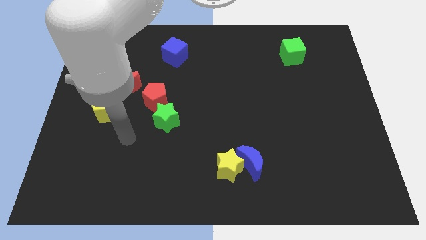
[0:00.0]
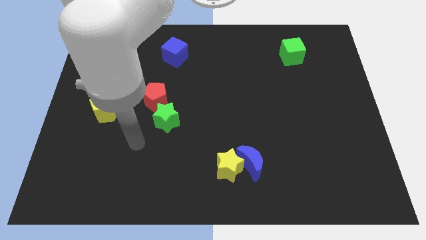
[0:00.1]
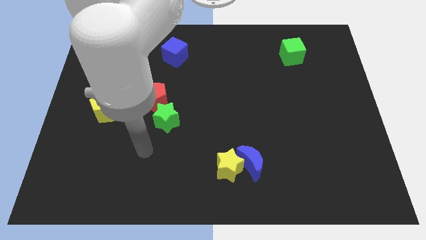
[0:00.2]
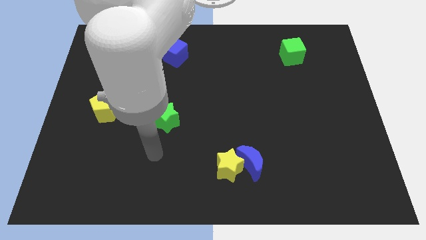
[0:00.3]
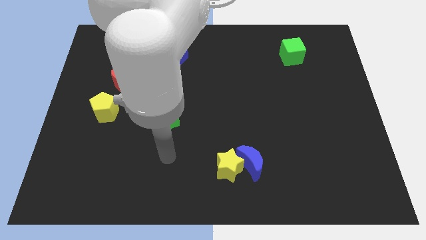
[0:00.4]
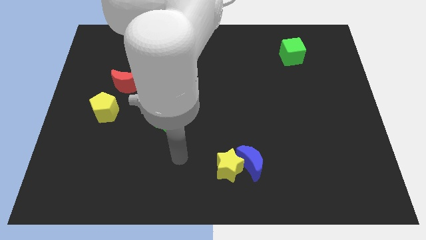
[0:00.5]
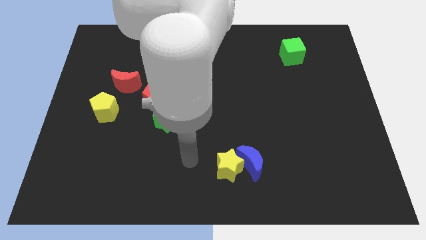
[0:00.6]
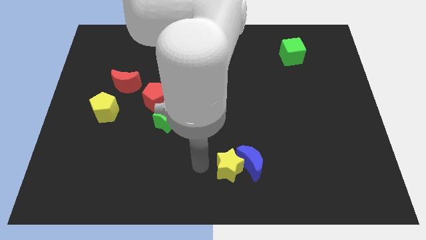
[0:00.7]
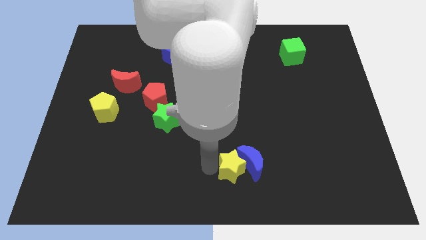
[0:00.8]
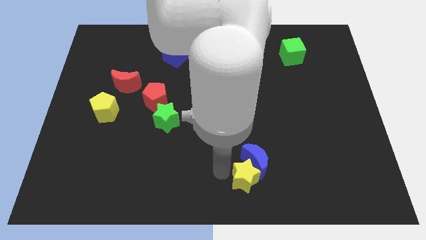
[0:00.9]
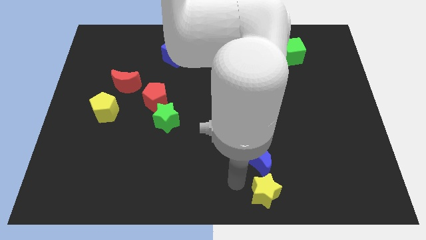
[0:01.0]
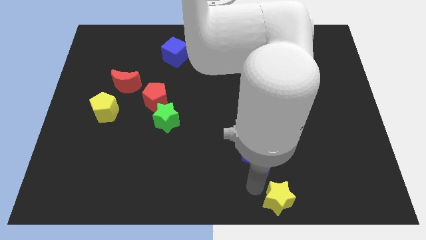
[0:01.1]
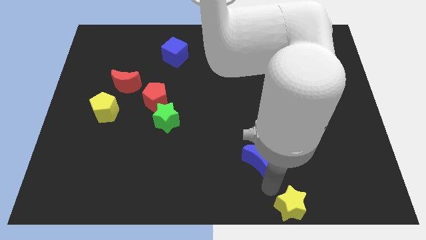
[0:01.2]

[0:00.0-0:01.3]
pull the blue moon apart from the yellow star

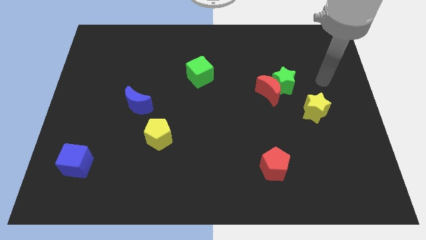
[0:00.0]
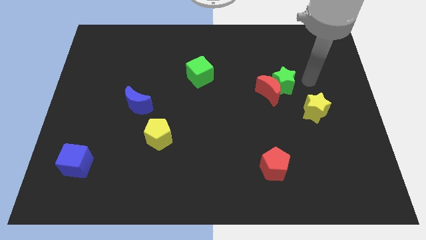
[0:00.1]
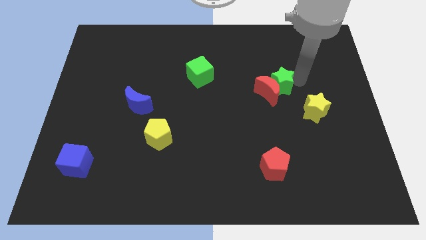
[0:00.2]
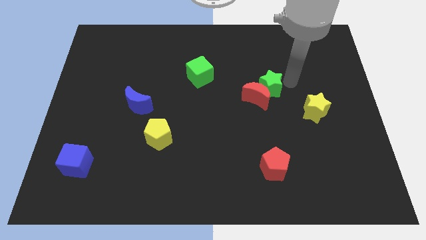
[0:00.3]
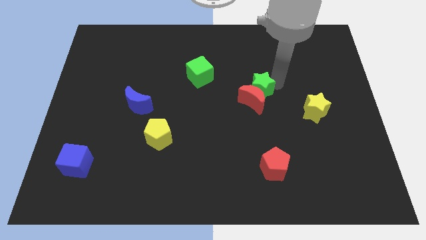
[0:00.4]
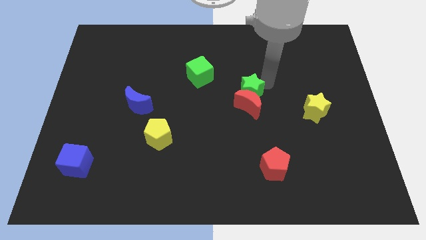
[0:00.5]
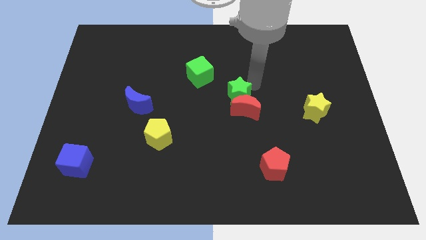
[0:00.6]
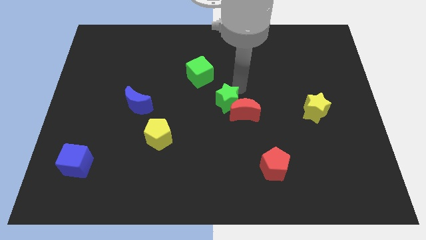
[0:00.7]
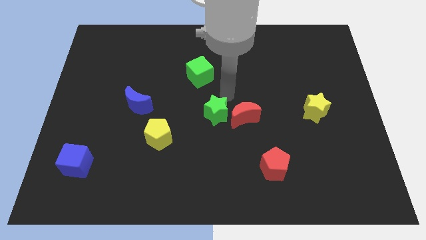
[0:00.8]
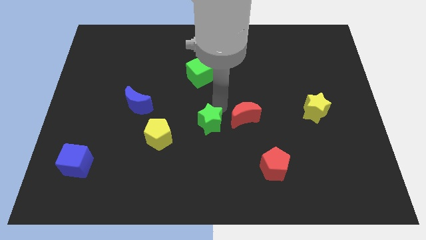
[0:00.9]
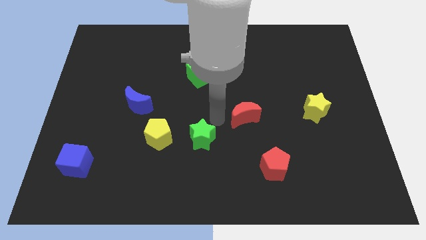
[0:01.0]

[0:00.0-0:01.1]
separate the red moon from the green star

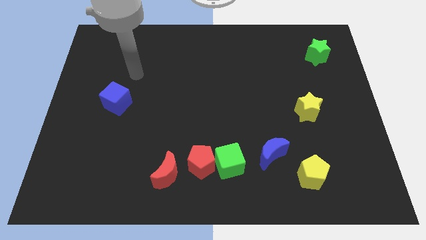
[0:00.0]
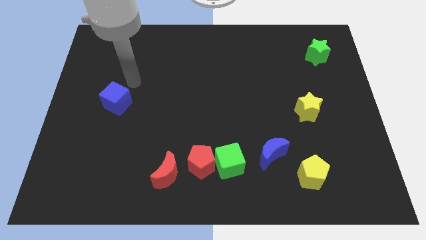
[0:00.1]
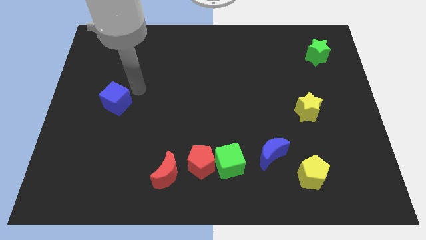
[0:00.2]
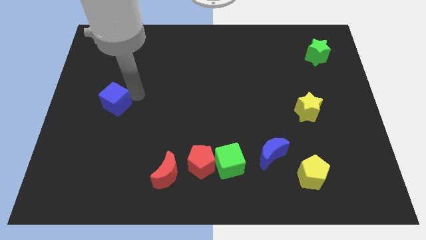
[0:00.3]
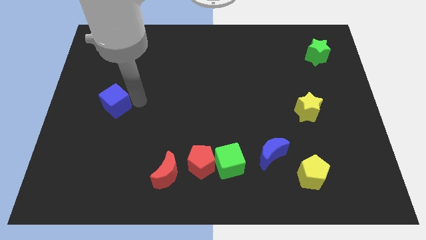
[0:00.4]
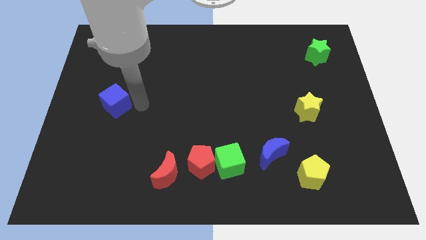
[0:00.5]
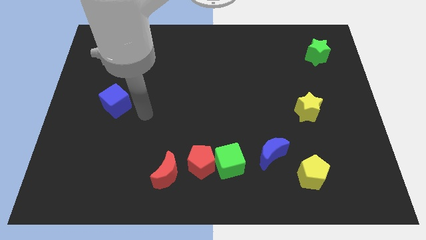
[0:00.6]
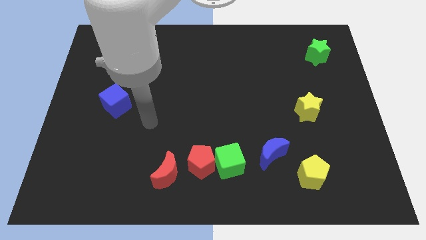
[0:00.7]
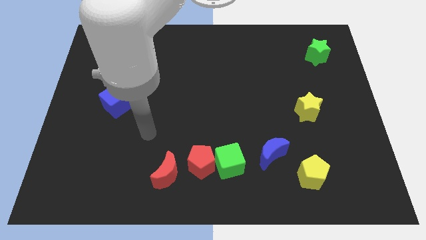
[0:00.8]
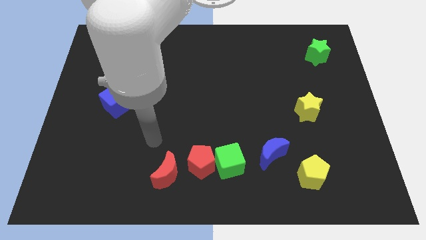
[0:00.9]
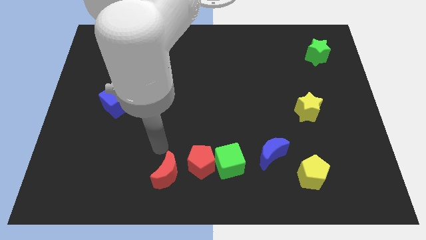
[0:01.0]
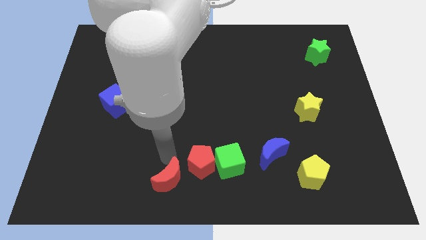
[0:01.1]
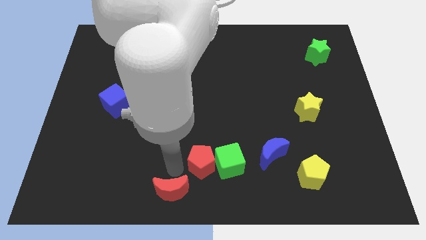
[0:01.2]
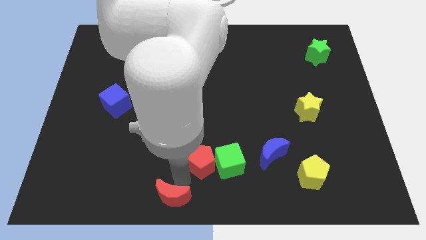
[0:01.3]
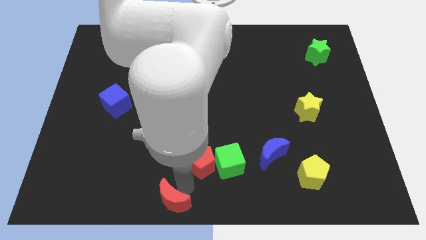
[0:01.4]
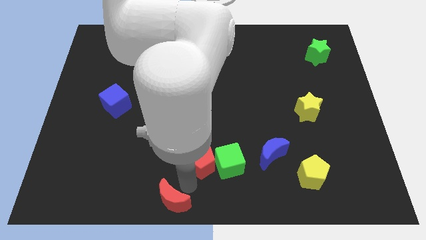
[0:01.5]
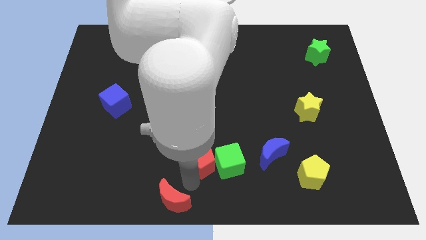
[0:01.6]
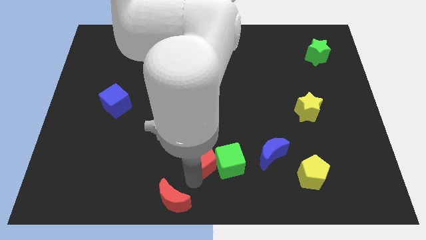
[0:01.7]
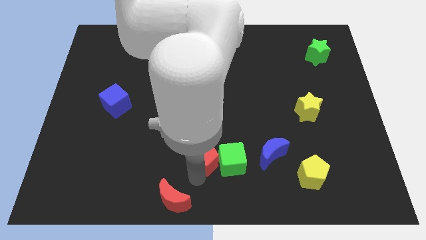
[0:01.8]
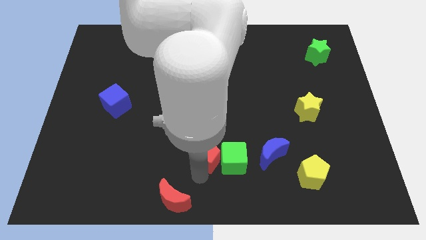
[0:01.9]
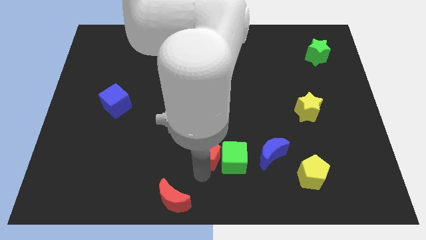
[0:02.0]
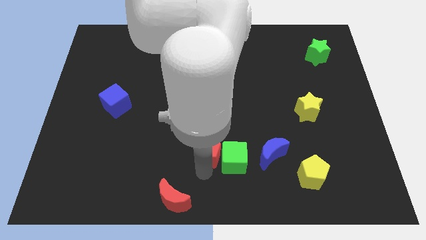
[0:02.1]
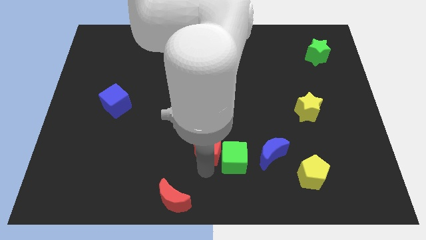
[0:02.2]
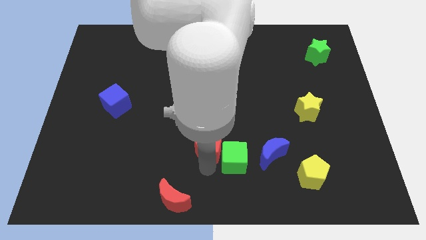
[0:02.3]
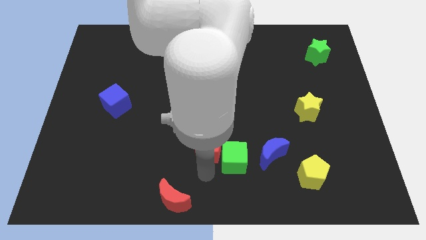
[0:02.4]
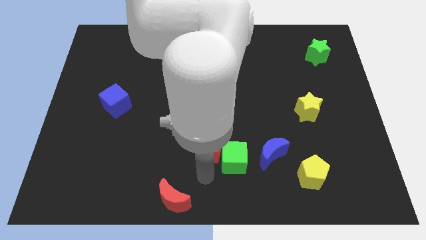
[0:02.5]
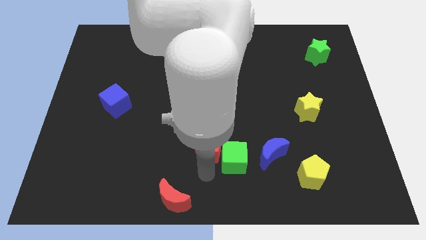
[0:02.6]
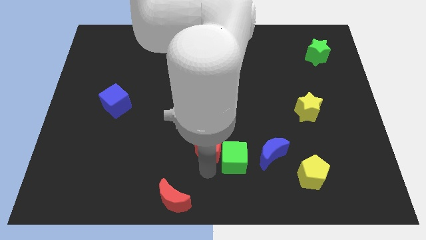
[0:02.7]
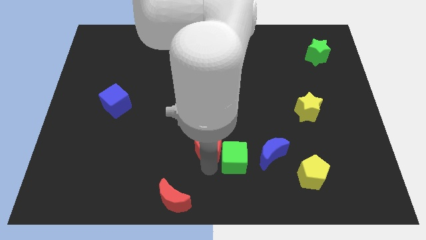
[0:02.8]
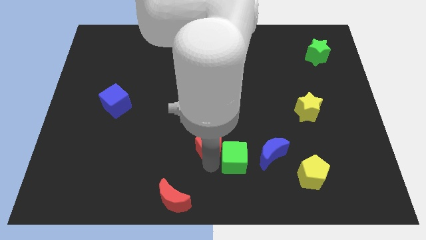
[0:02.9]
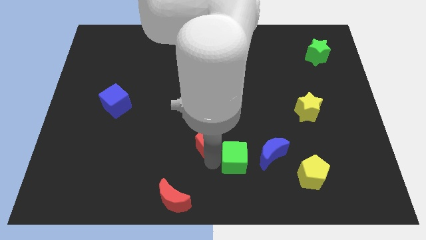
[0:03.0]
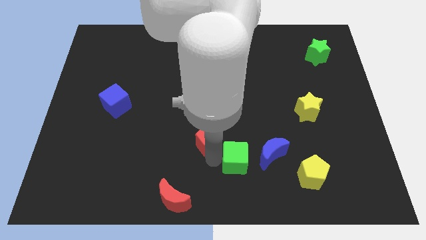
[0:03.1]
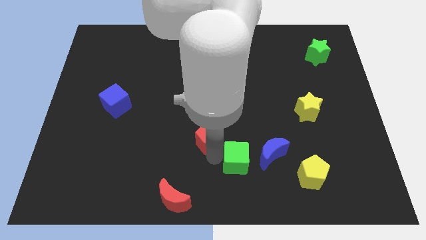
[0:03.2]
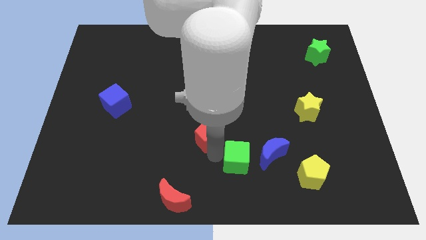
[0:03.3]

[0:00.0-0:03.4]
pull the red pentagon apart from the green cube and red moon

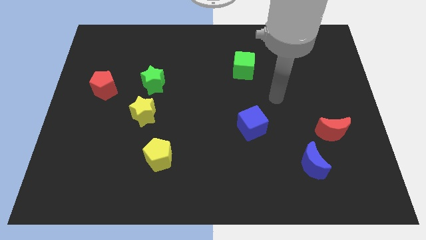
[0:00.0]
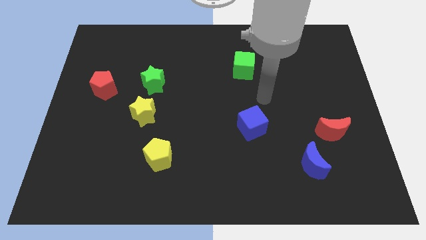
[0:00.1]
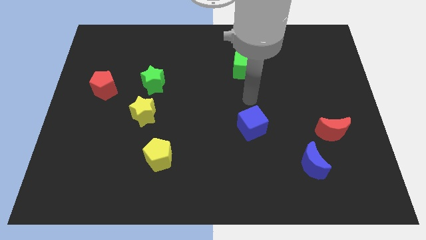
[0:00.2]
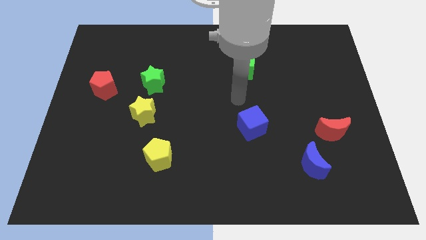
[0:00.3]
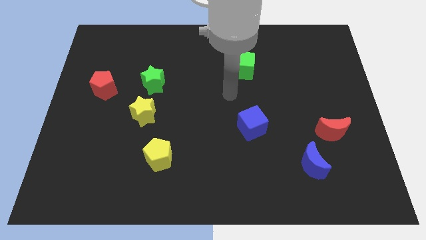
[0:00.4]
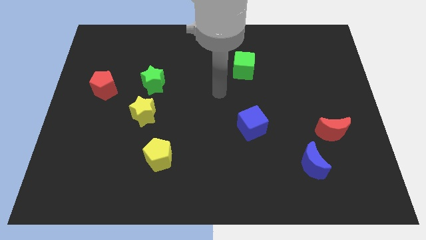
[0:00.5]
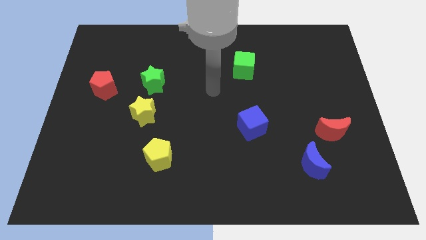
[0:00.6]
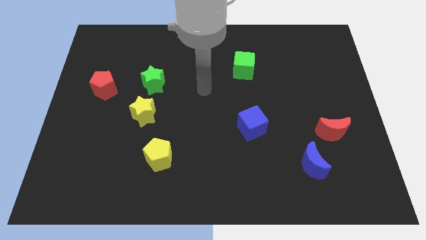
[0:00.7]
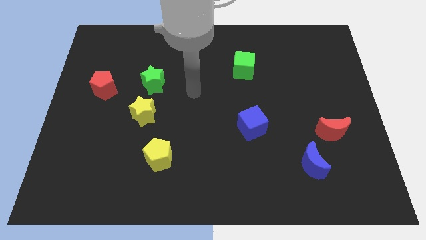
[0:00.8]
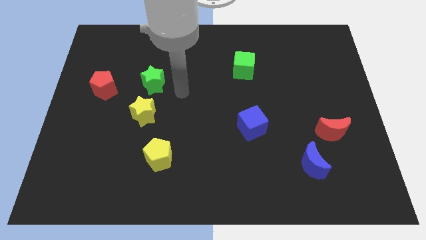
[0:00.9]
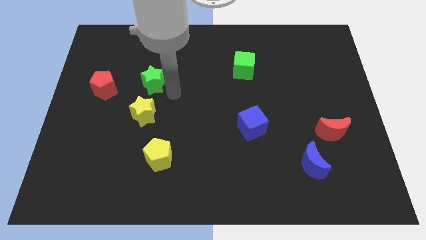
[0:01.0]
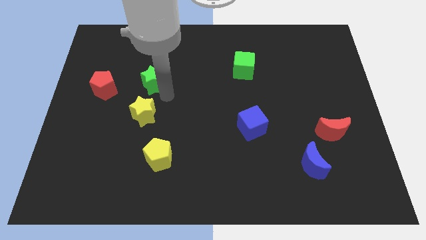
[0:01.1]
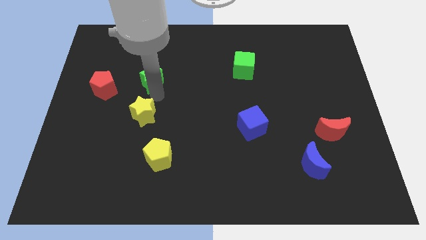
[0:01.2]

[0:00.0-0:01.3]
pull the green star apart from the yellow star

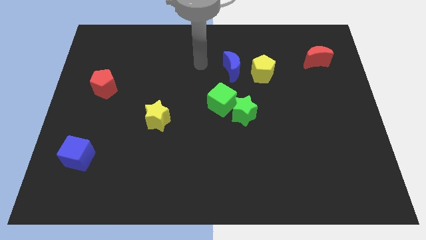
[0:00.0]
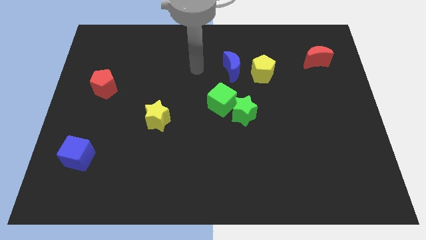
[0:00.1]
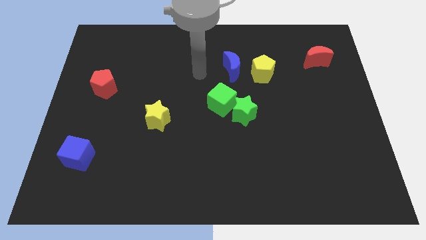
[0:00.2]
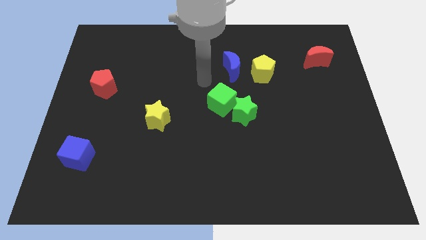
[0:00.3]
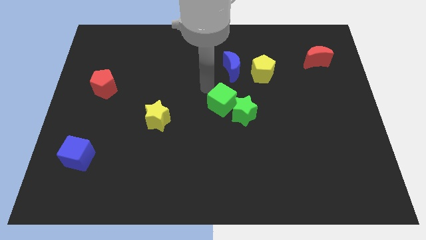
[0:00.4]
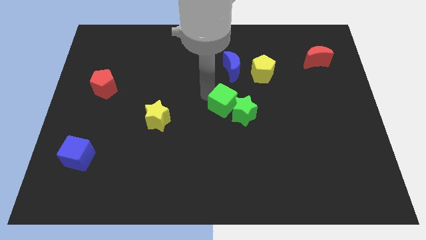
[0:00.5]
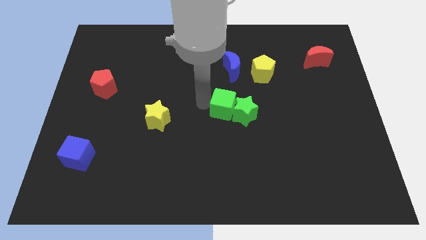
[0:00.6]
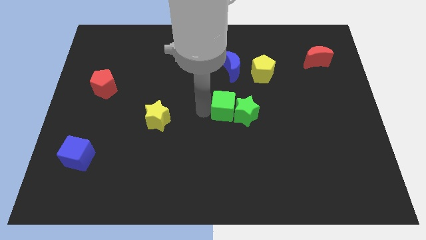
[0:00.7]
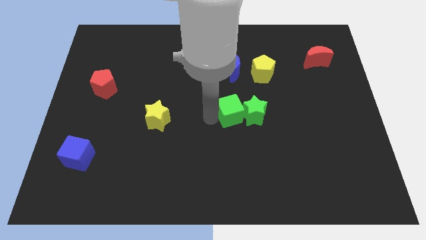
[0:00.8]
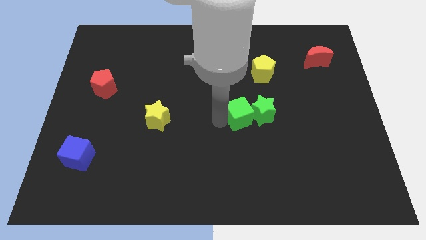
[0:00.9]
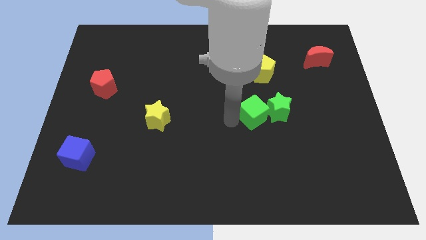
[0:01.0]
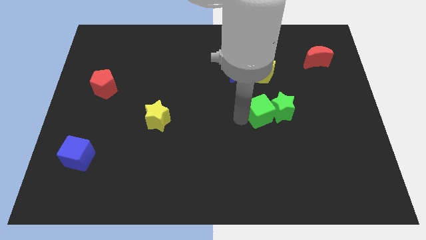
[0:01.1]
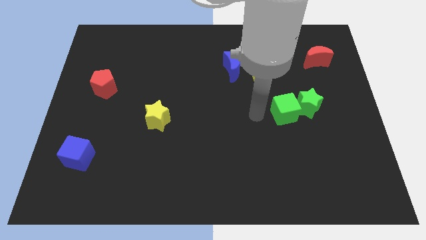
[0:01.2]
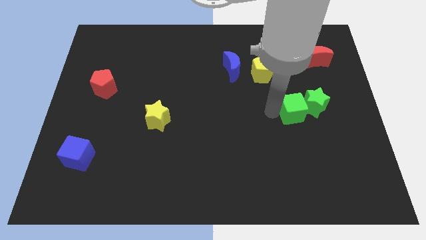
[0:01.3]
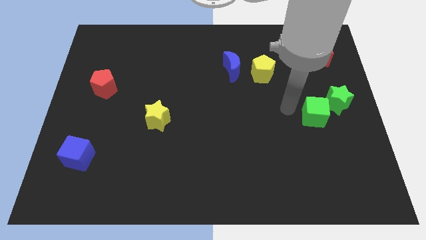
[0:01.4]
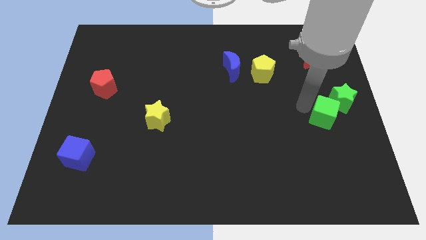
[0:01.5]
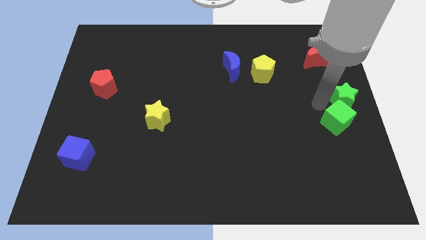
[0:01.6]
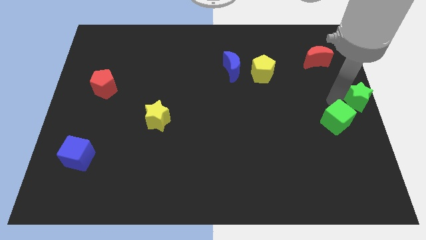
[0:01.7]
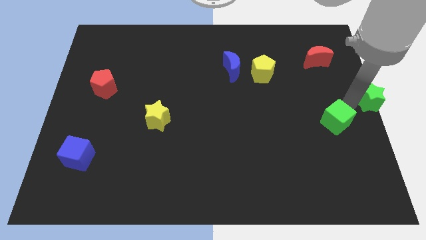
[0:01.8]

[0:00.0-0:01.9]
separate the green cube from the green star

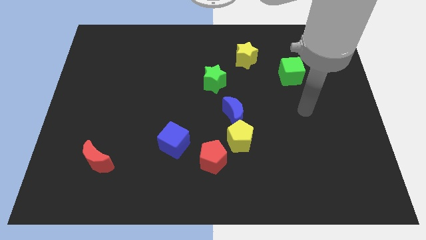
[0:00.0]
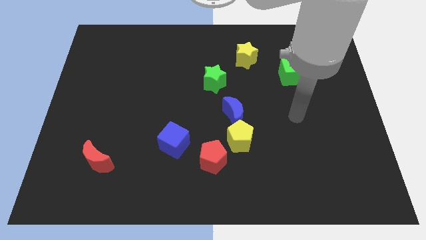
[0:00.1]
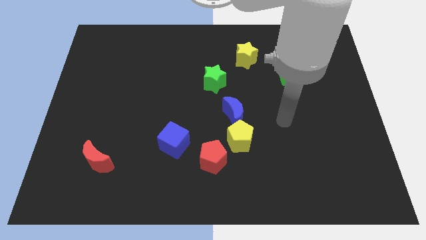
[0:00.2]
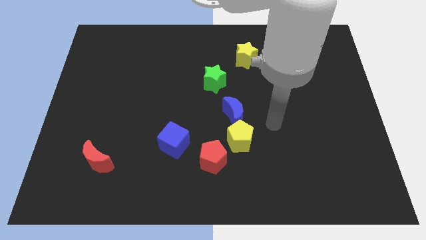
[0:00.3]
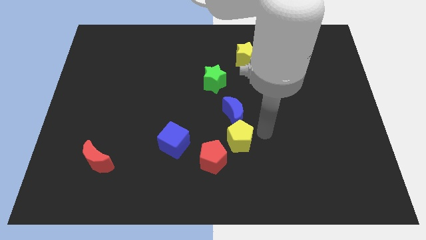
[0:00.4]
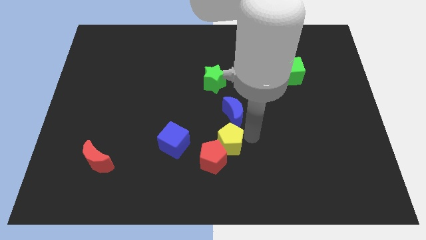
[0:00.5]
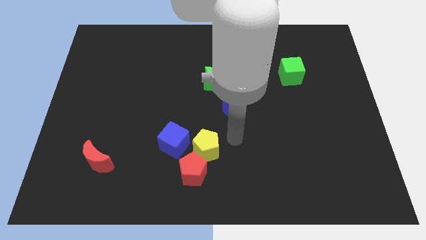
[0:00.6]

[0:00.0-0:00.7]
pull the blue moon apart from the yellow pentagon
